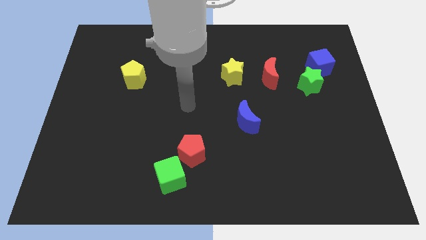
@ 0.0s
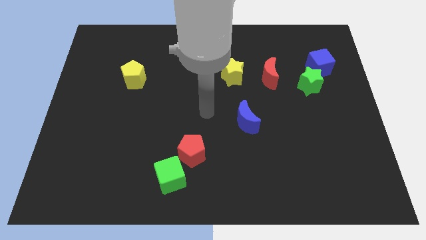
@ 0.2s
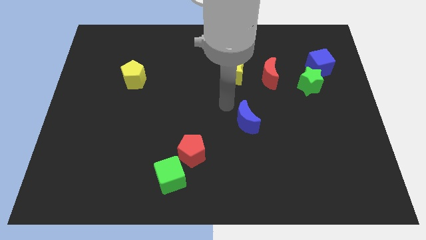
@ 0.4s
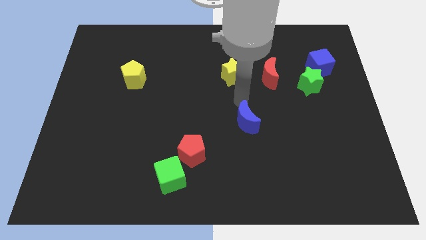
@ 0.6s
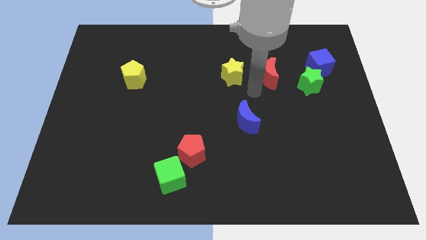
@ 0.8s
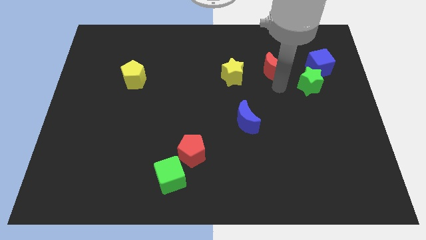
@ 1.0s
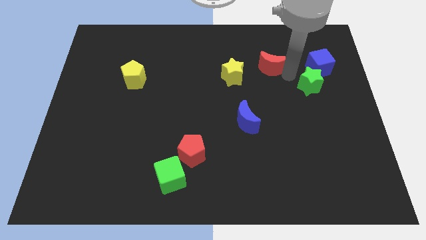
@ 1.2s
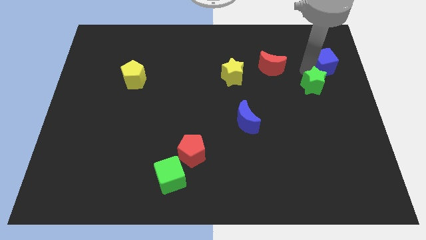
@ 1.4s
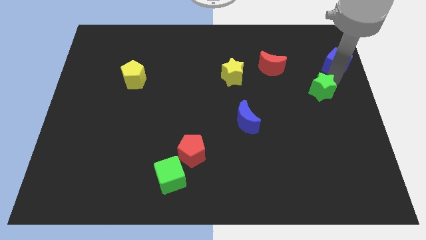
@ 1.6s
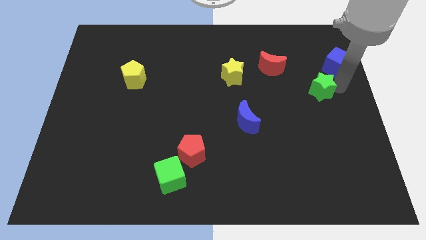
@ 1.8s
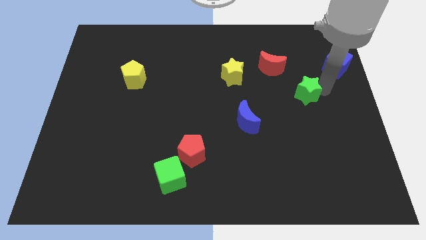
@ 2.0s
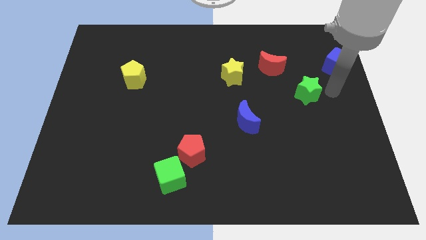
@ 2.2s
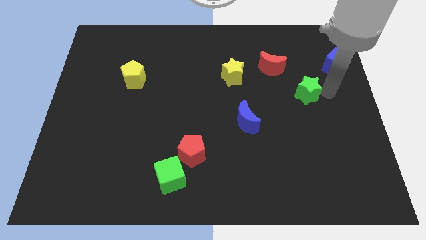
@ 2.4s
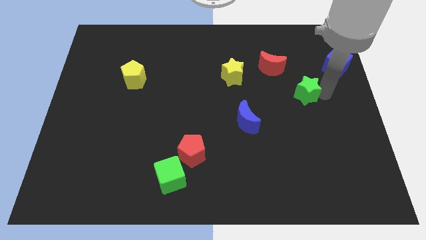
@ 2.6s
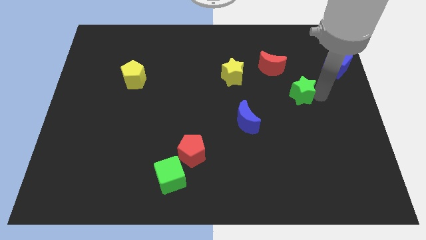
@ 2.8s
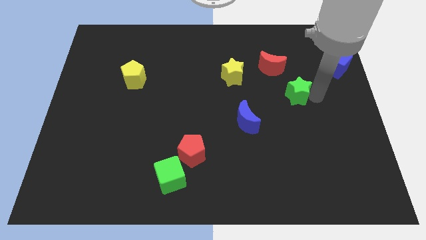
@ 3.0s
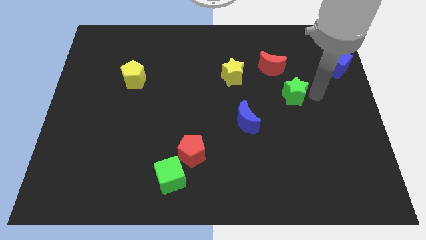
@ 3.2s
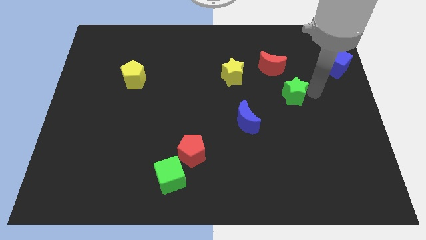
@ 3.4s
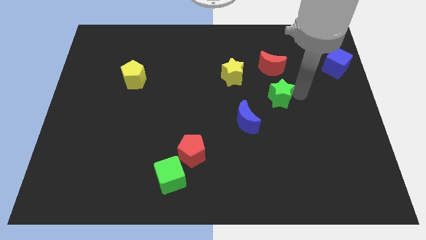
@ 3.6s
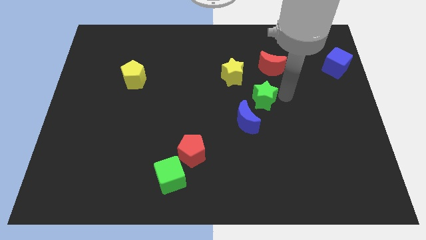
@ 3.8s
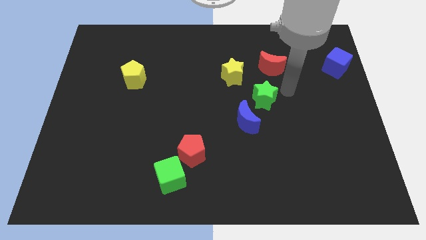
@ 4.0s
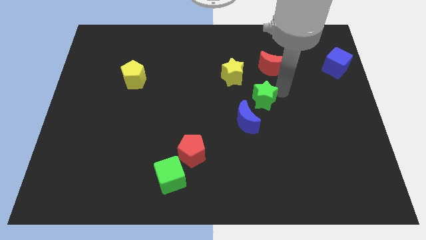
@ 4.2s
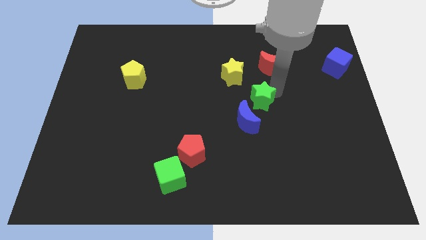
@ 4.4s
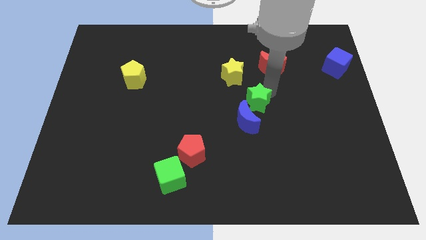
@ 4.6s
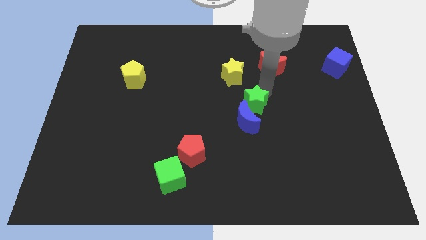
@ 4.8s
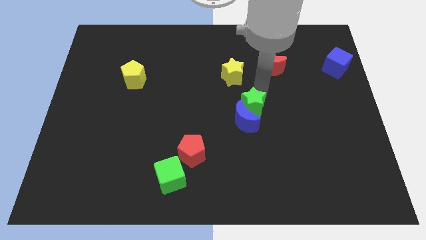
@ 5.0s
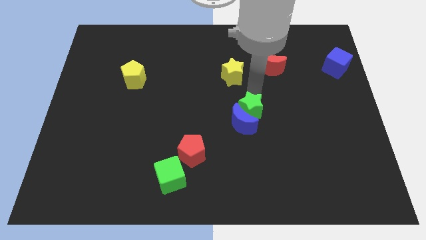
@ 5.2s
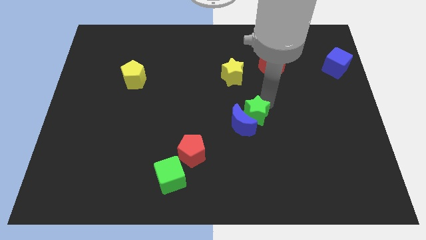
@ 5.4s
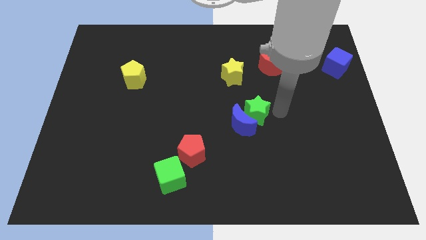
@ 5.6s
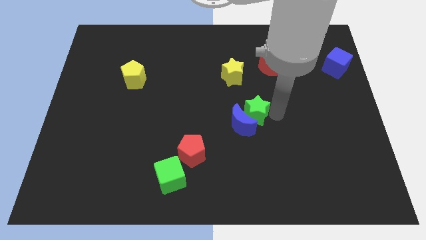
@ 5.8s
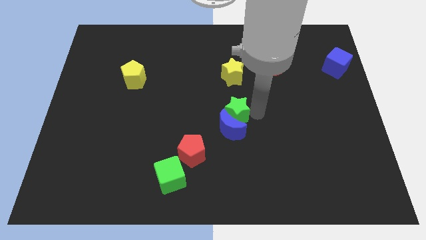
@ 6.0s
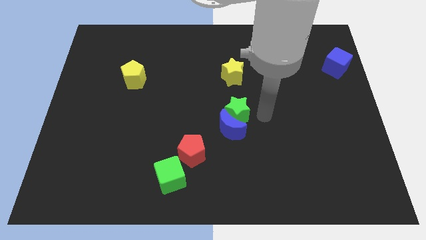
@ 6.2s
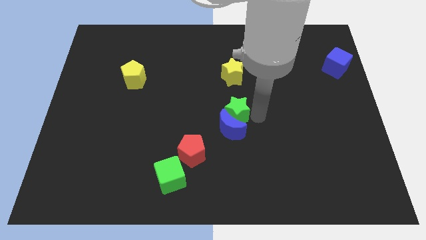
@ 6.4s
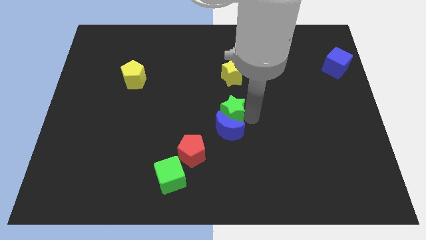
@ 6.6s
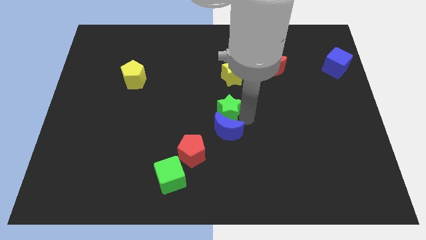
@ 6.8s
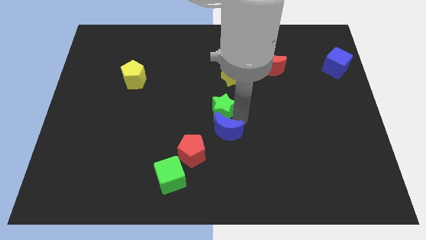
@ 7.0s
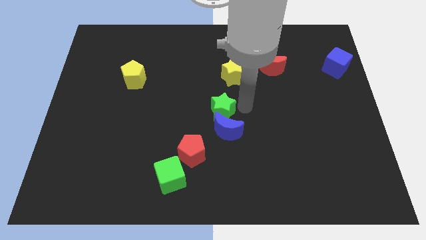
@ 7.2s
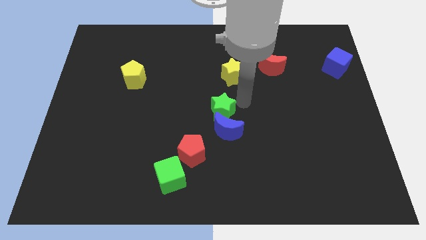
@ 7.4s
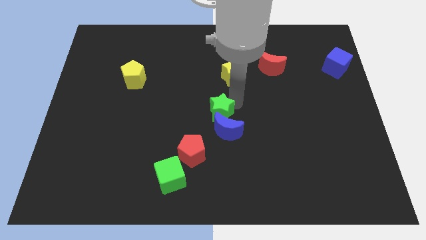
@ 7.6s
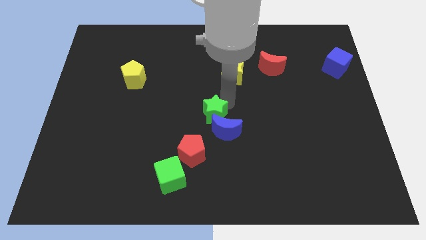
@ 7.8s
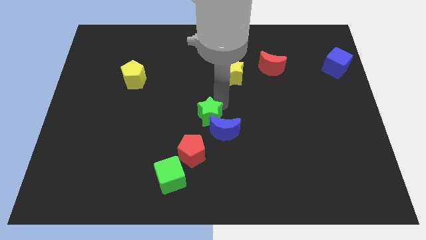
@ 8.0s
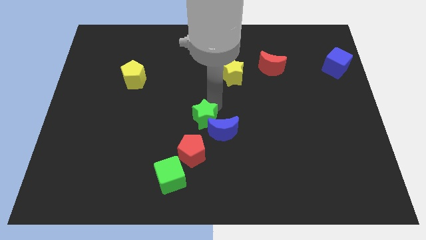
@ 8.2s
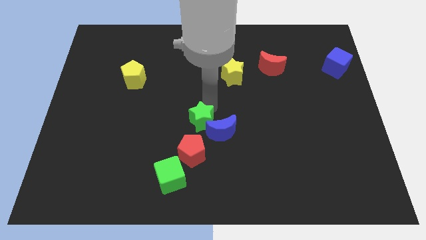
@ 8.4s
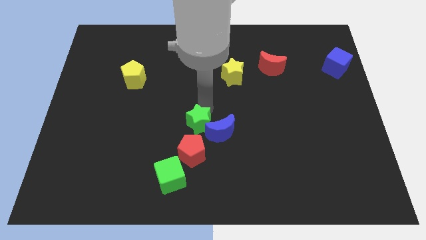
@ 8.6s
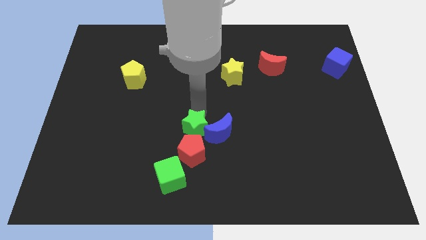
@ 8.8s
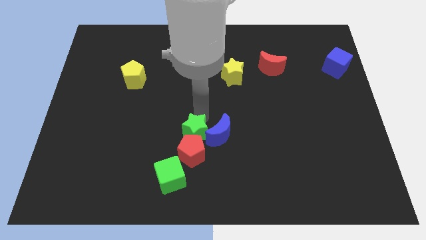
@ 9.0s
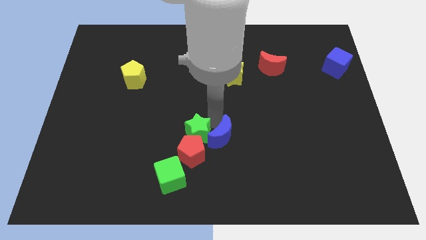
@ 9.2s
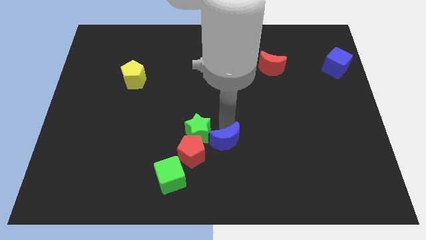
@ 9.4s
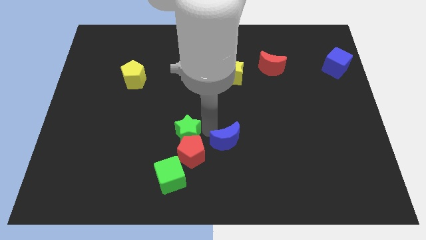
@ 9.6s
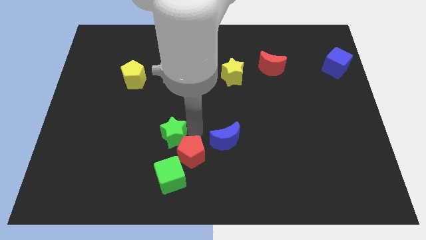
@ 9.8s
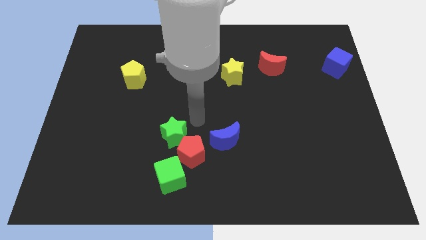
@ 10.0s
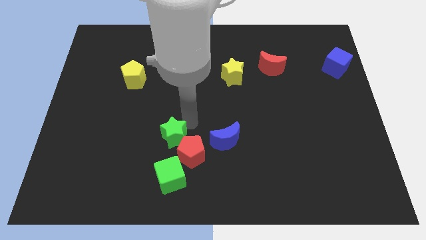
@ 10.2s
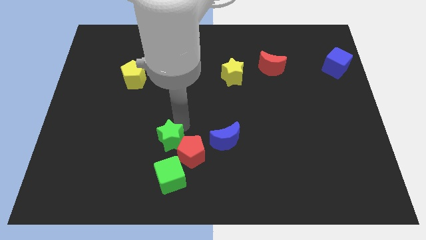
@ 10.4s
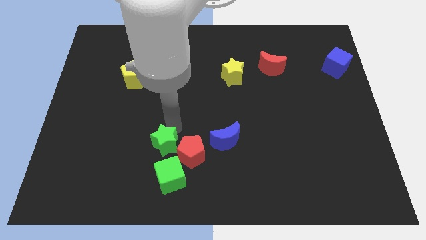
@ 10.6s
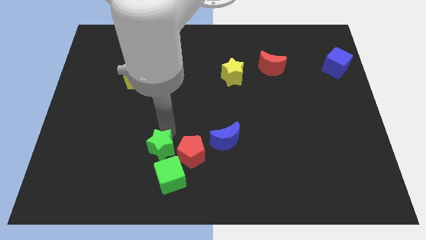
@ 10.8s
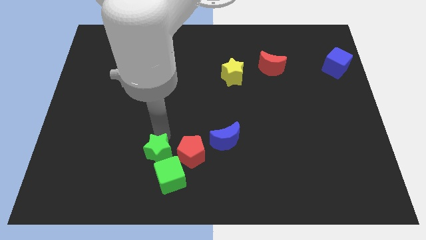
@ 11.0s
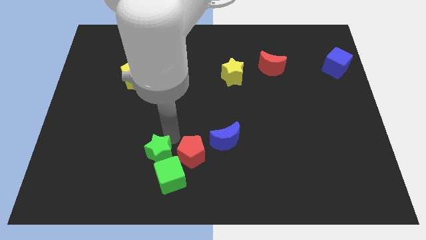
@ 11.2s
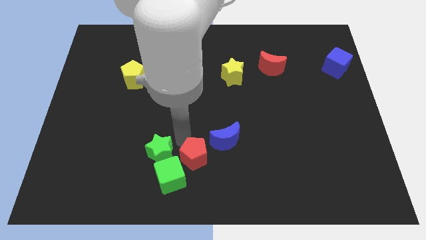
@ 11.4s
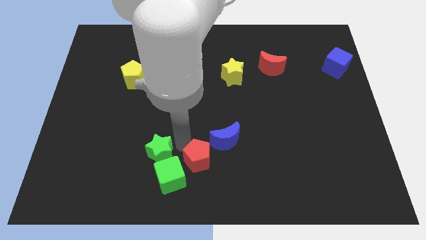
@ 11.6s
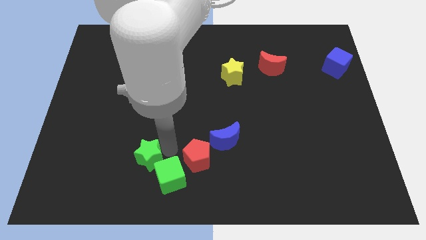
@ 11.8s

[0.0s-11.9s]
push the green star left of the green cube

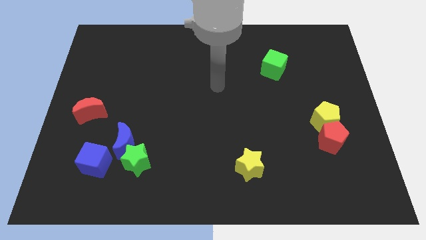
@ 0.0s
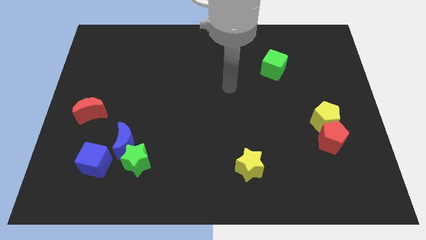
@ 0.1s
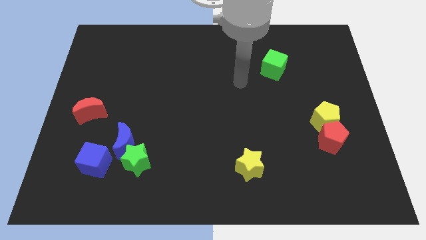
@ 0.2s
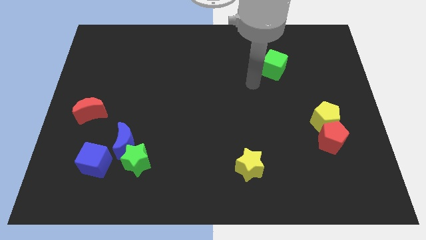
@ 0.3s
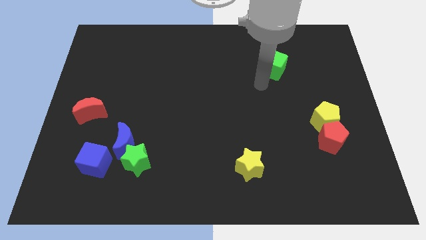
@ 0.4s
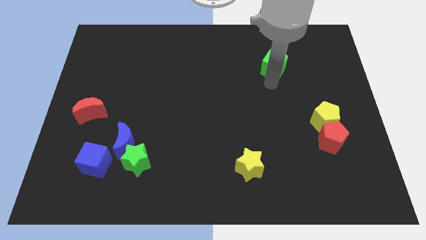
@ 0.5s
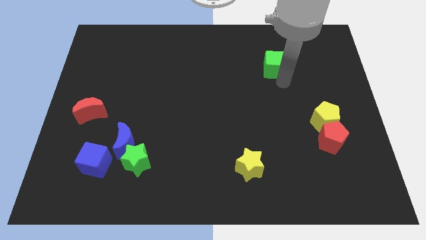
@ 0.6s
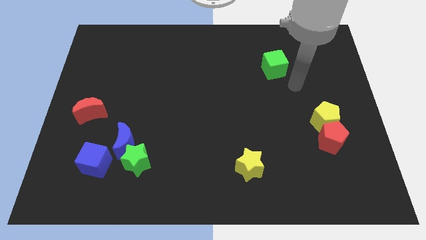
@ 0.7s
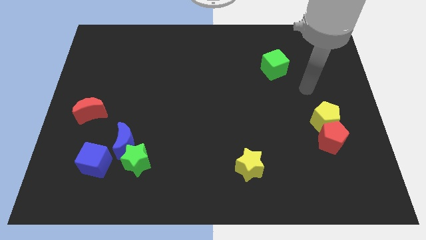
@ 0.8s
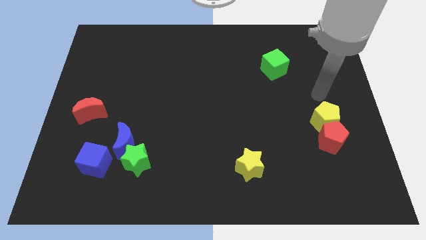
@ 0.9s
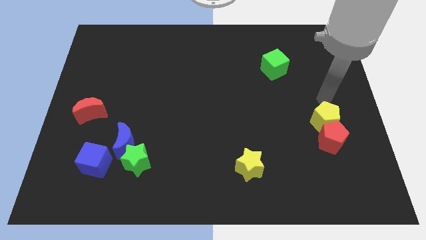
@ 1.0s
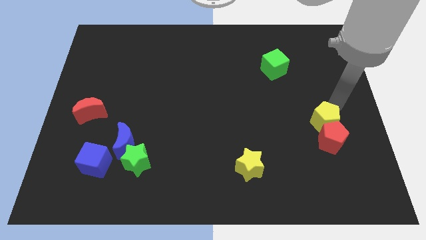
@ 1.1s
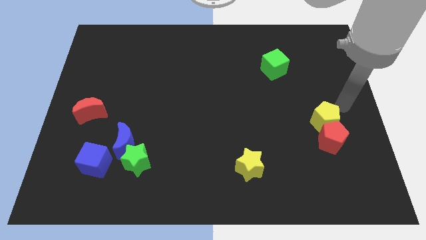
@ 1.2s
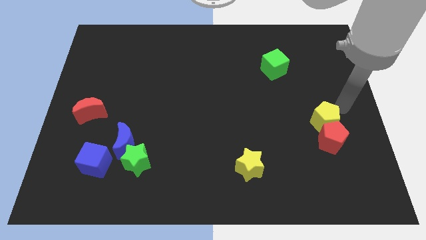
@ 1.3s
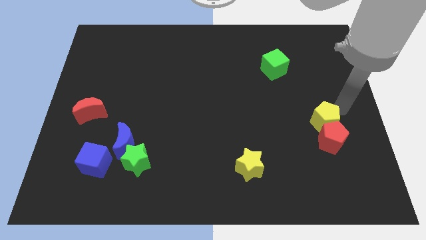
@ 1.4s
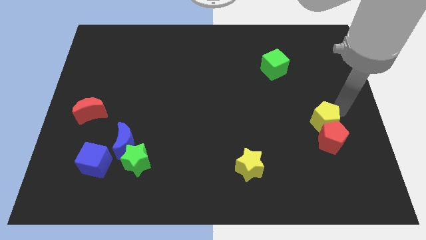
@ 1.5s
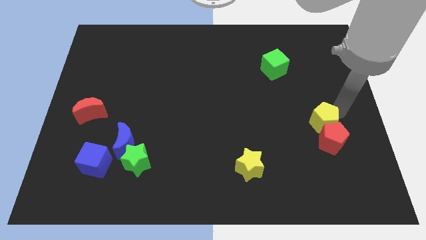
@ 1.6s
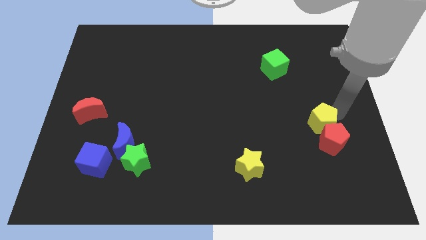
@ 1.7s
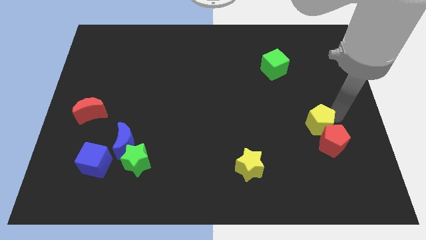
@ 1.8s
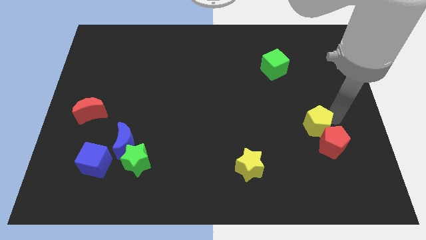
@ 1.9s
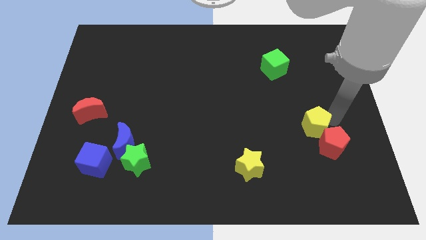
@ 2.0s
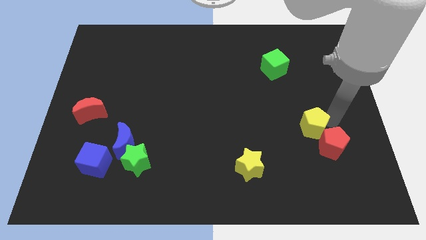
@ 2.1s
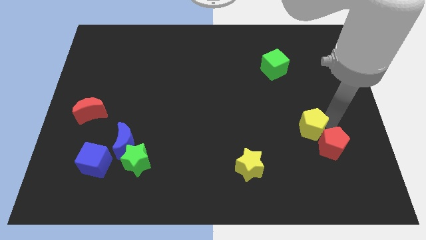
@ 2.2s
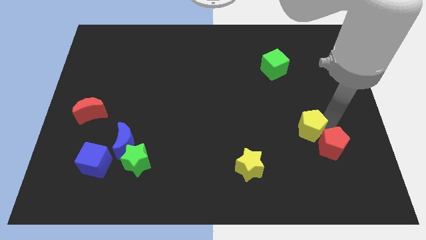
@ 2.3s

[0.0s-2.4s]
slide the yellow pentagon to the left side of the red pentagon
